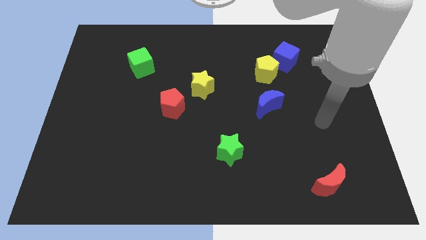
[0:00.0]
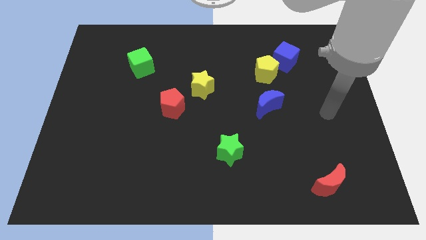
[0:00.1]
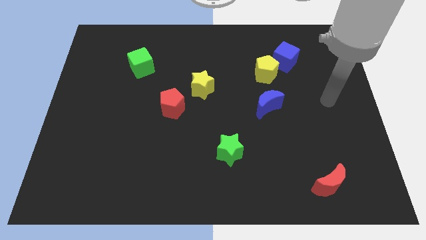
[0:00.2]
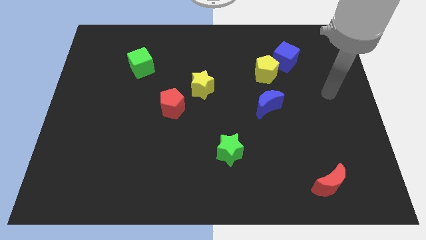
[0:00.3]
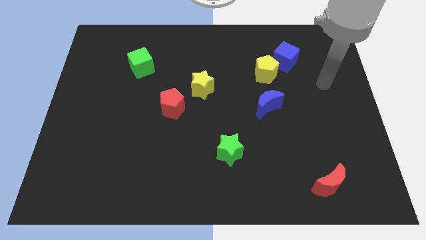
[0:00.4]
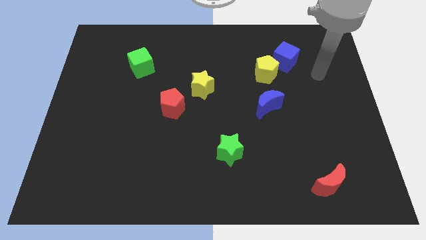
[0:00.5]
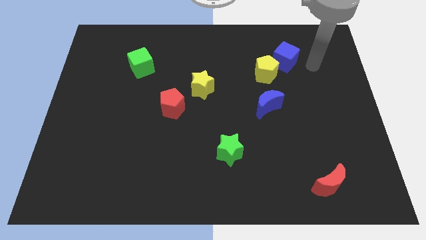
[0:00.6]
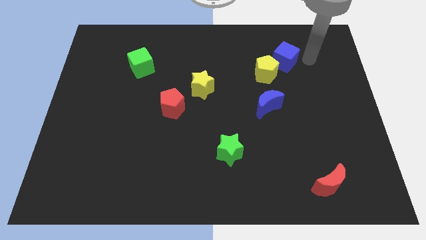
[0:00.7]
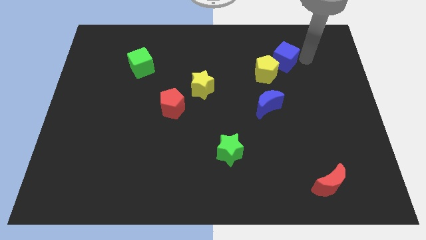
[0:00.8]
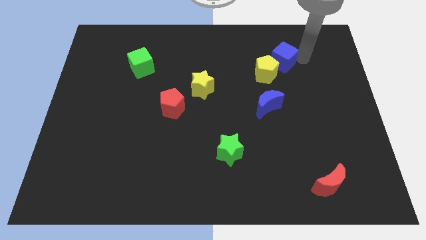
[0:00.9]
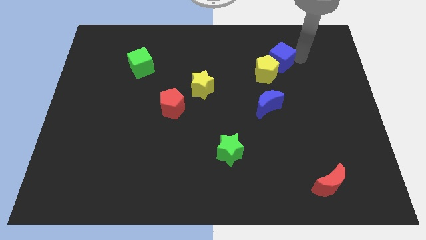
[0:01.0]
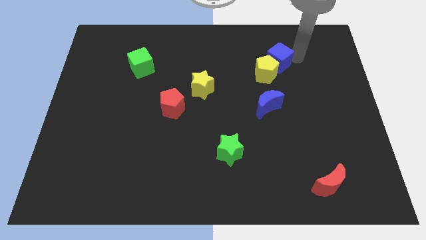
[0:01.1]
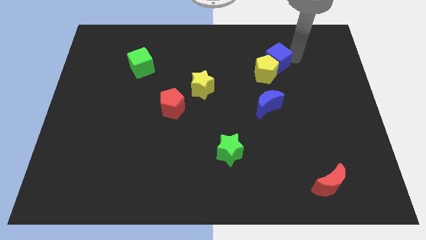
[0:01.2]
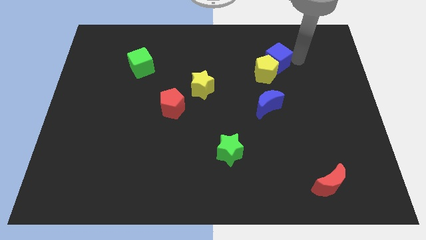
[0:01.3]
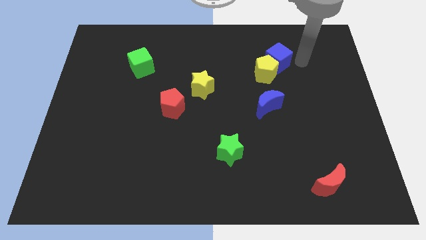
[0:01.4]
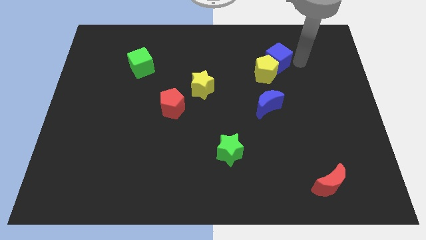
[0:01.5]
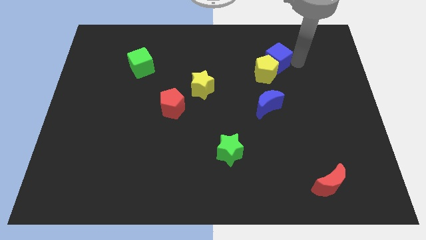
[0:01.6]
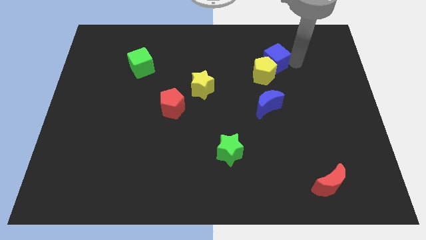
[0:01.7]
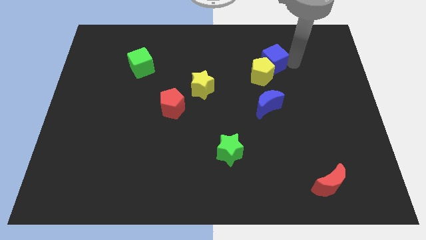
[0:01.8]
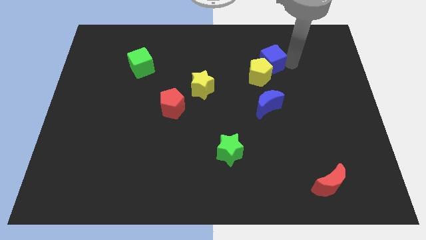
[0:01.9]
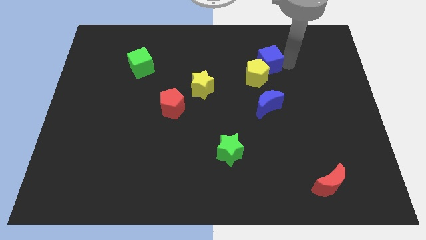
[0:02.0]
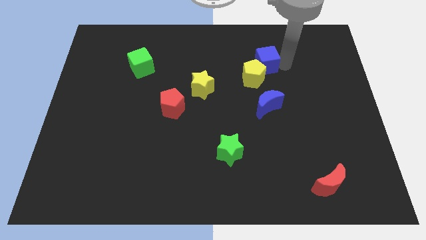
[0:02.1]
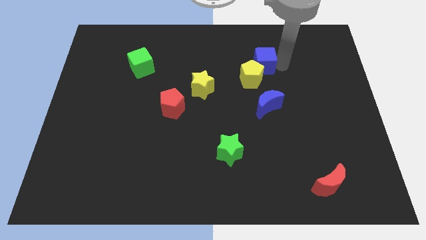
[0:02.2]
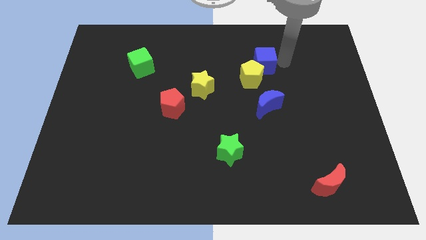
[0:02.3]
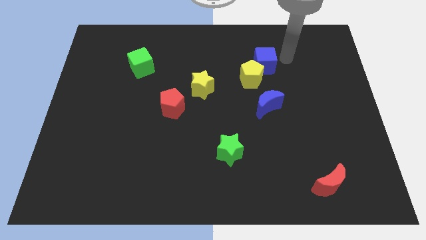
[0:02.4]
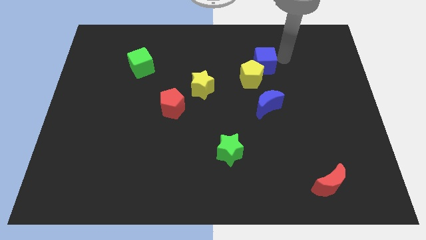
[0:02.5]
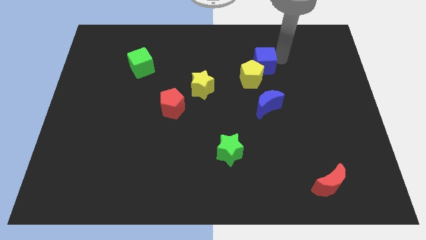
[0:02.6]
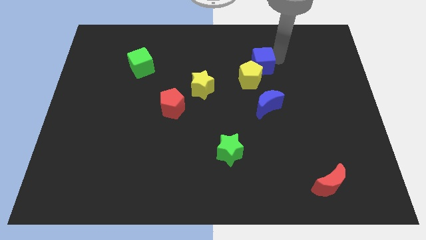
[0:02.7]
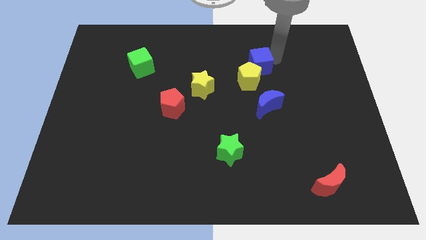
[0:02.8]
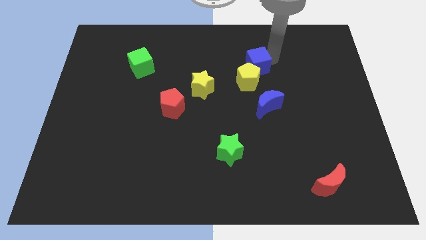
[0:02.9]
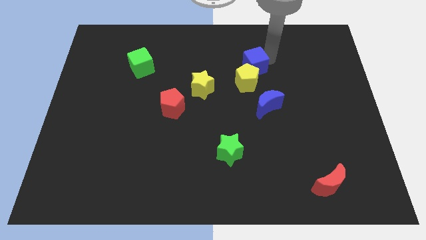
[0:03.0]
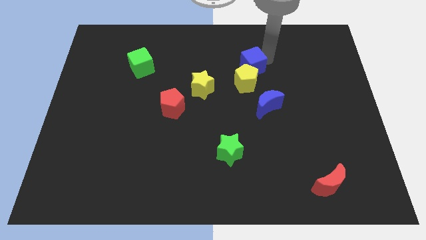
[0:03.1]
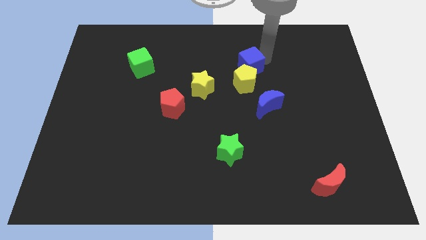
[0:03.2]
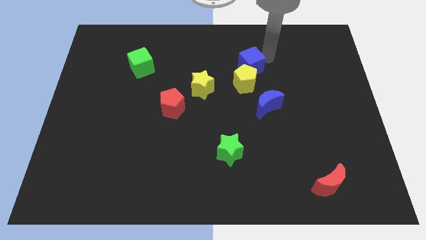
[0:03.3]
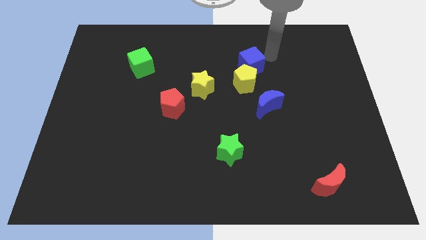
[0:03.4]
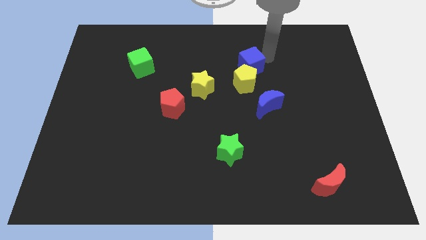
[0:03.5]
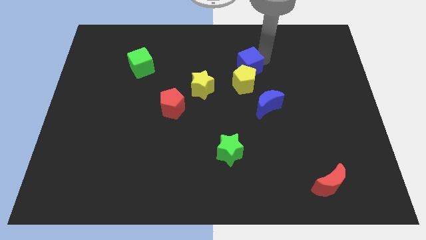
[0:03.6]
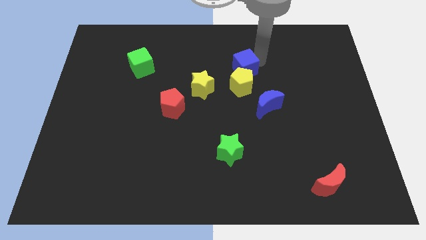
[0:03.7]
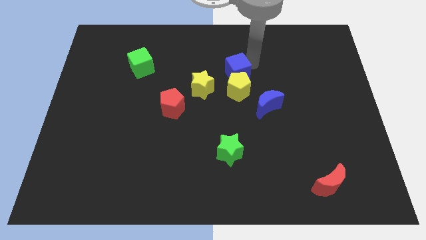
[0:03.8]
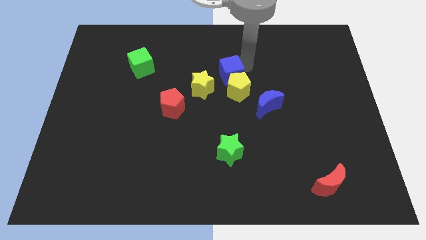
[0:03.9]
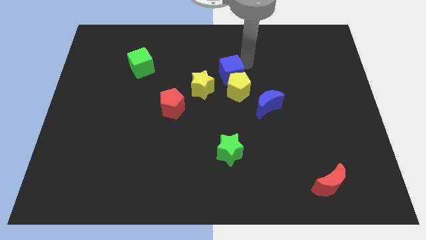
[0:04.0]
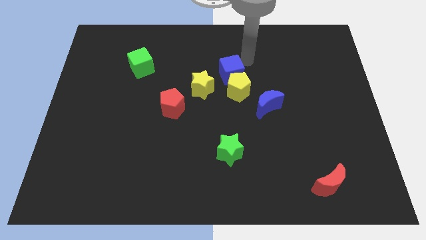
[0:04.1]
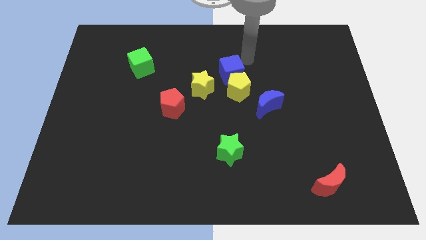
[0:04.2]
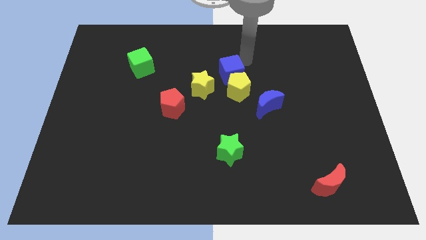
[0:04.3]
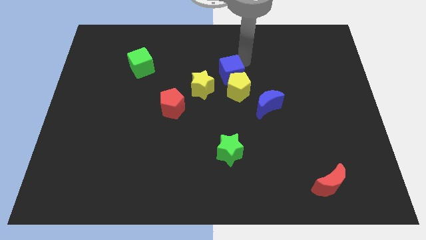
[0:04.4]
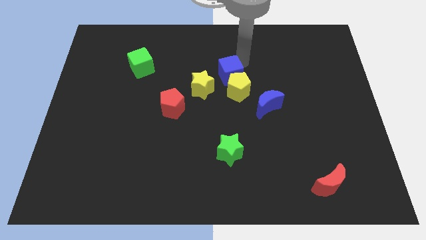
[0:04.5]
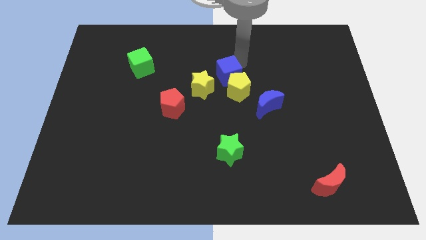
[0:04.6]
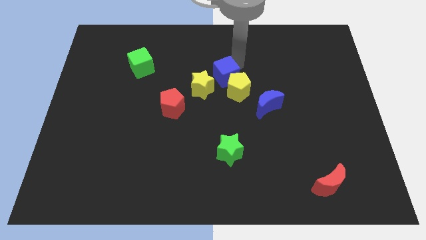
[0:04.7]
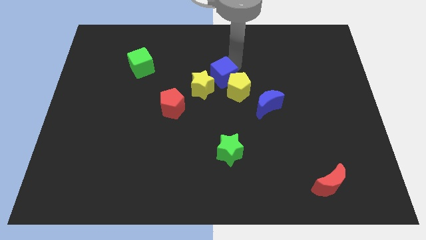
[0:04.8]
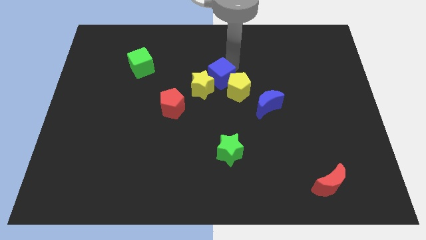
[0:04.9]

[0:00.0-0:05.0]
move the blue cube next to the yellow star

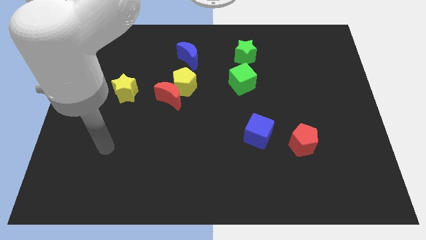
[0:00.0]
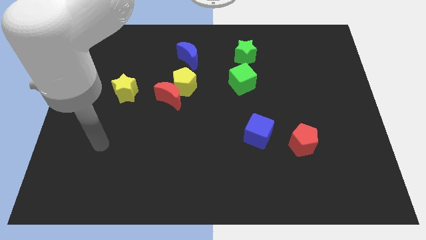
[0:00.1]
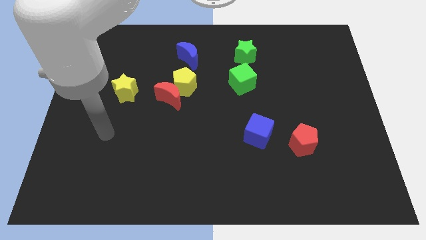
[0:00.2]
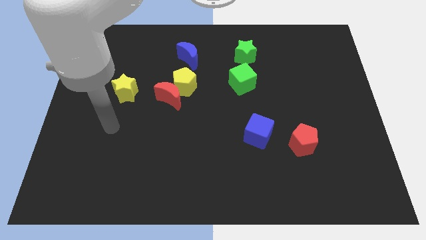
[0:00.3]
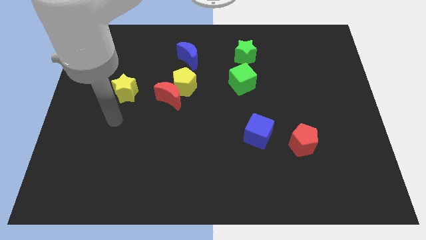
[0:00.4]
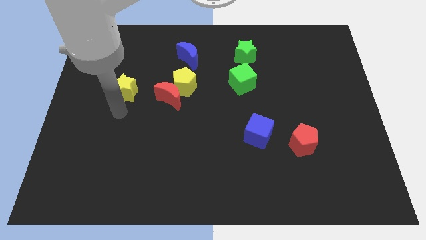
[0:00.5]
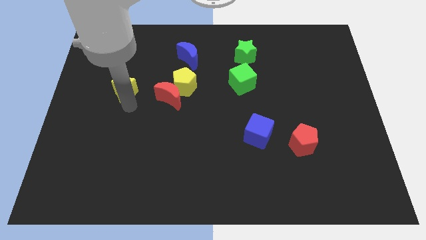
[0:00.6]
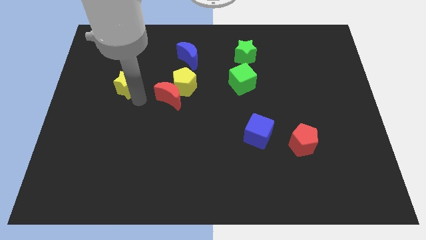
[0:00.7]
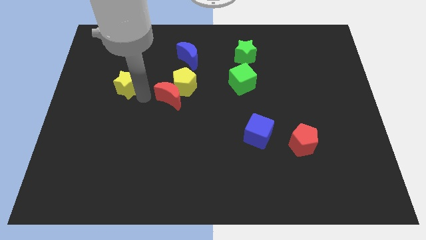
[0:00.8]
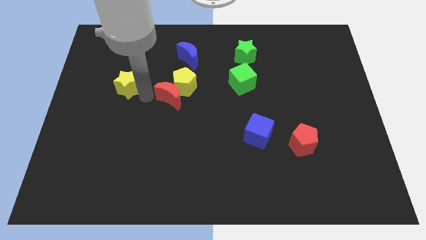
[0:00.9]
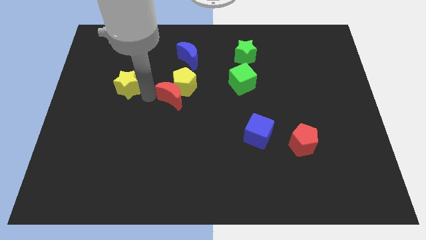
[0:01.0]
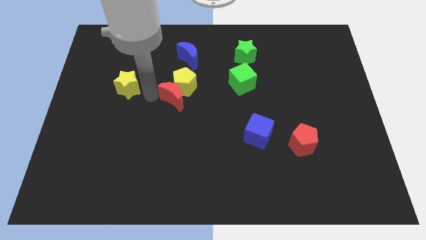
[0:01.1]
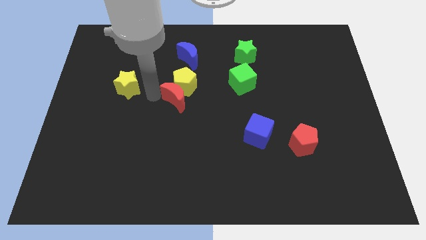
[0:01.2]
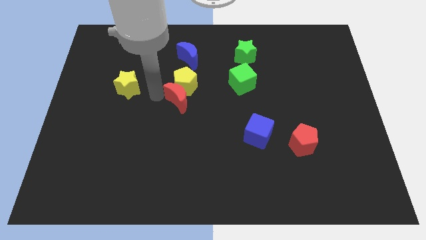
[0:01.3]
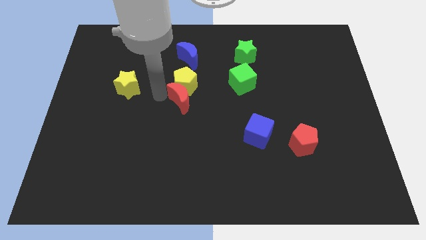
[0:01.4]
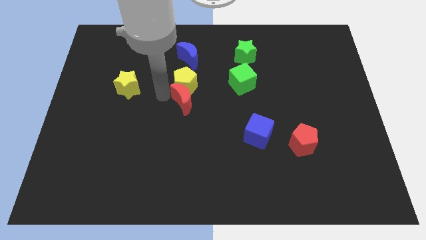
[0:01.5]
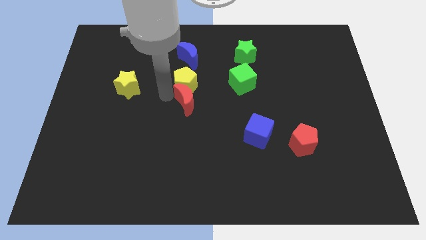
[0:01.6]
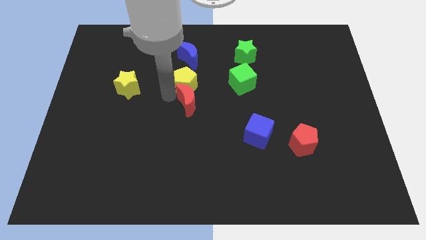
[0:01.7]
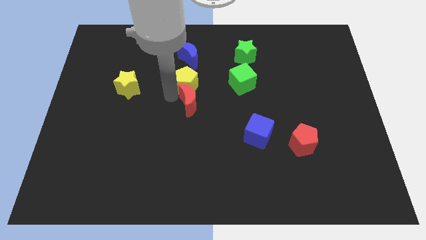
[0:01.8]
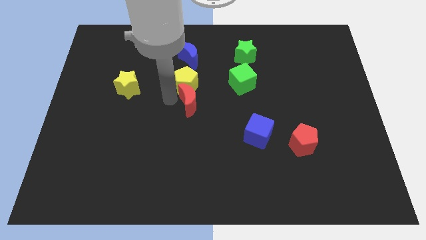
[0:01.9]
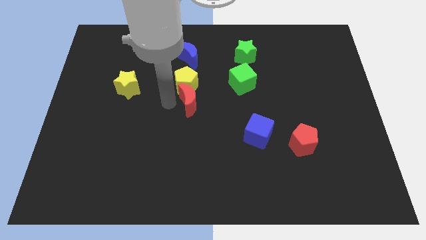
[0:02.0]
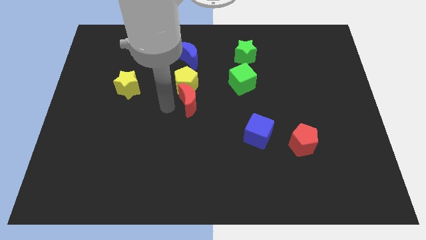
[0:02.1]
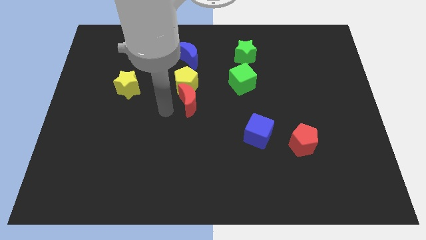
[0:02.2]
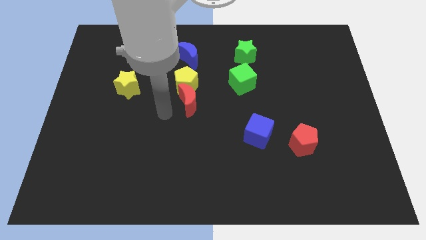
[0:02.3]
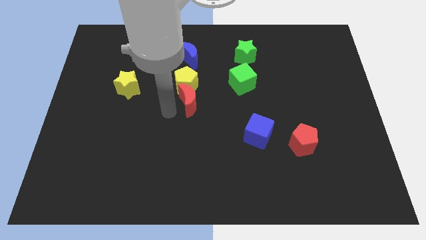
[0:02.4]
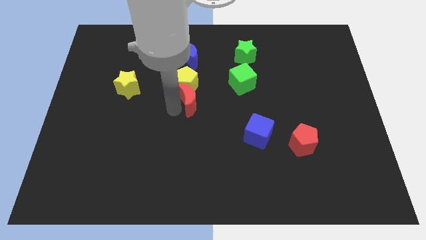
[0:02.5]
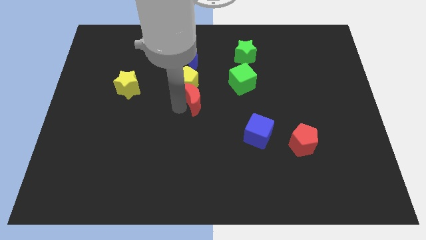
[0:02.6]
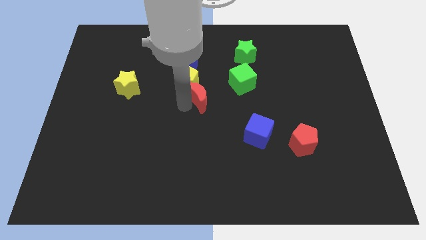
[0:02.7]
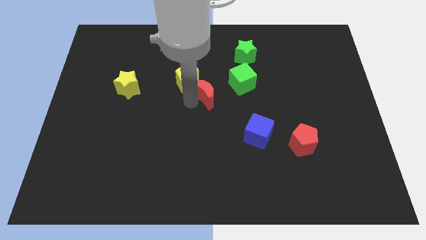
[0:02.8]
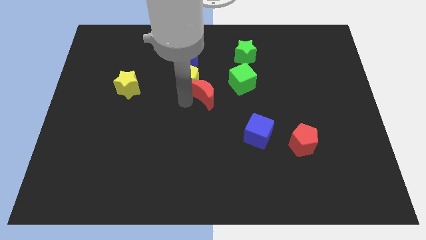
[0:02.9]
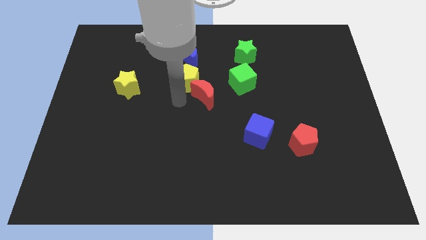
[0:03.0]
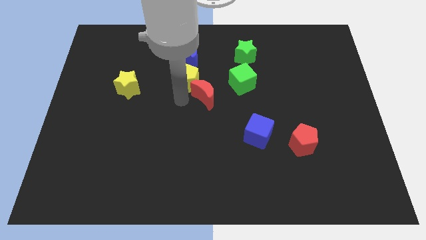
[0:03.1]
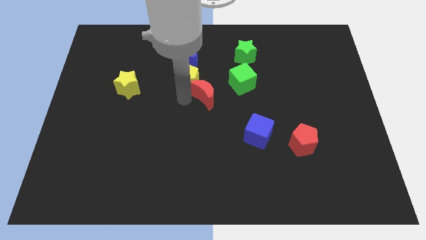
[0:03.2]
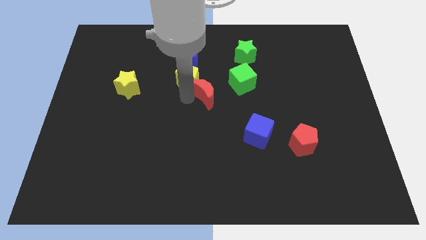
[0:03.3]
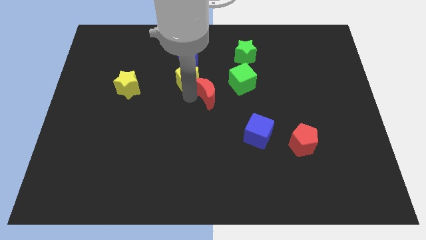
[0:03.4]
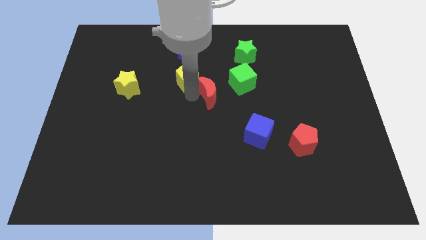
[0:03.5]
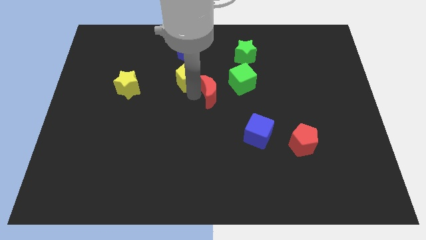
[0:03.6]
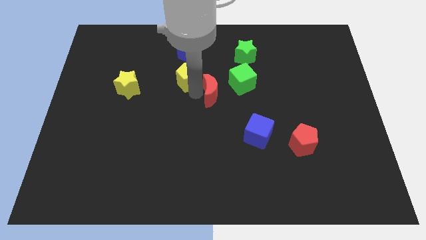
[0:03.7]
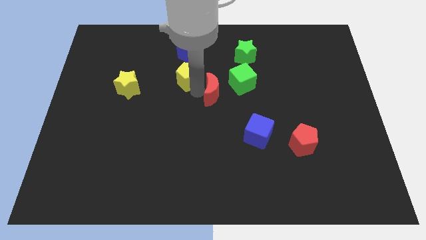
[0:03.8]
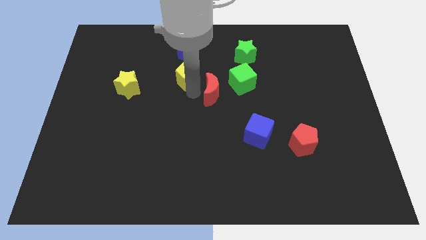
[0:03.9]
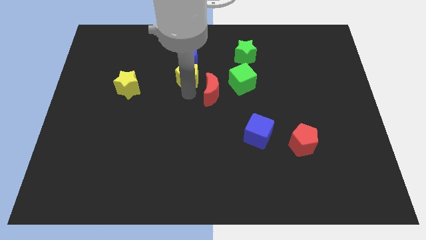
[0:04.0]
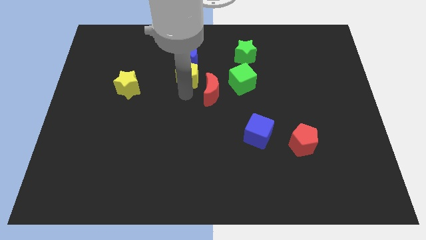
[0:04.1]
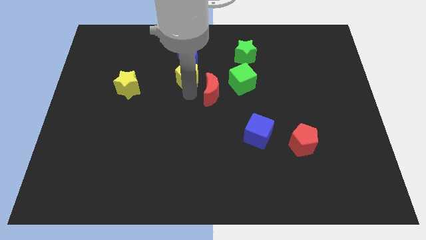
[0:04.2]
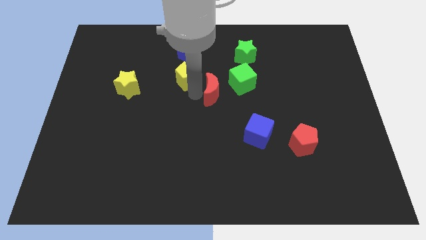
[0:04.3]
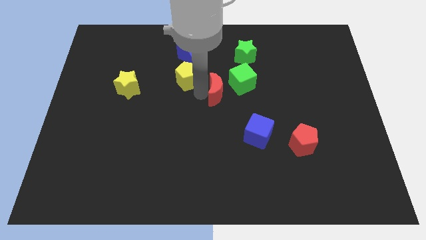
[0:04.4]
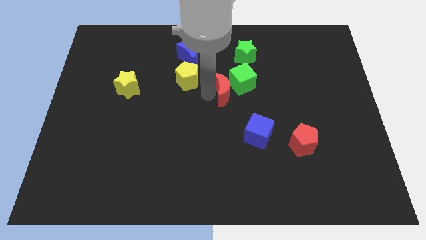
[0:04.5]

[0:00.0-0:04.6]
put the red moon towards the green cube
